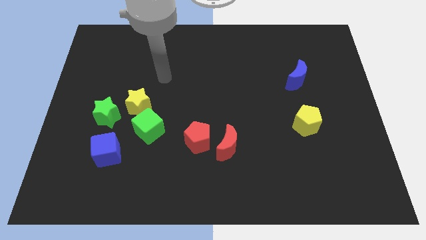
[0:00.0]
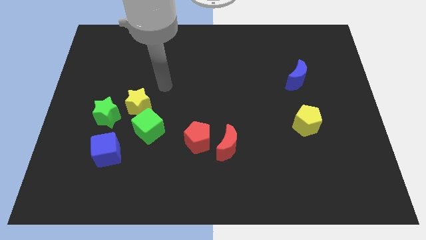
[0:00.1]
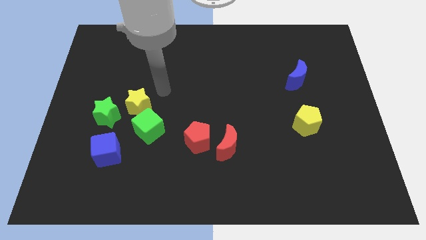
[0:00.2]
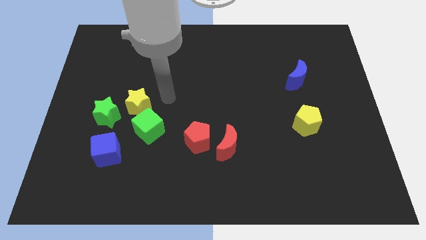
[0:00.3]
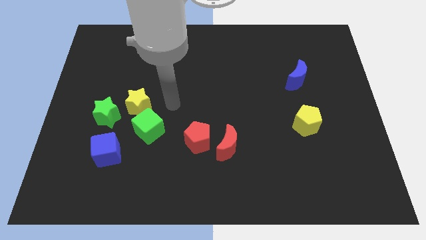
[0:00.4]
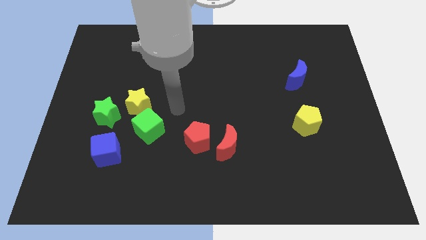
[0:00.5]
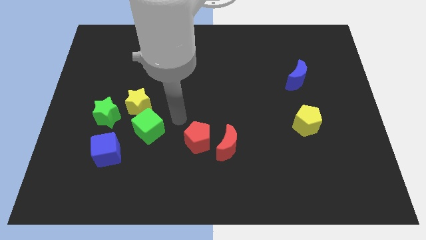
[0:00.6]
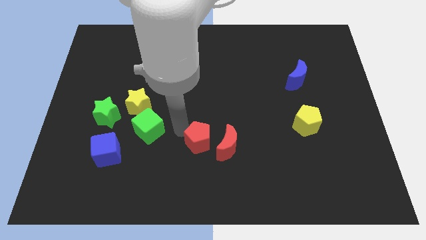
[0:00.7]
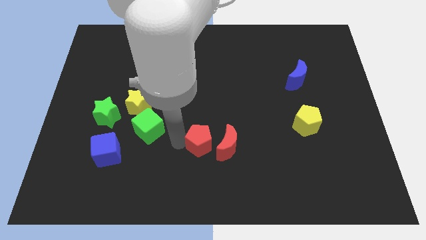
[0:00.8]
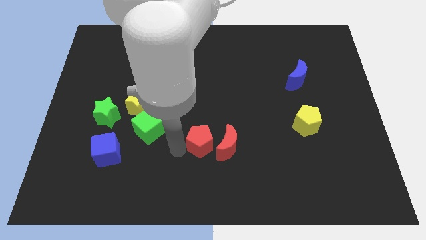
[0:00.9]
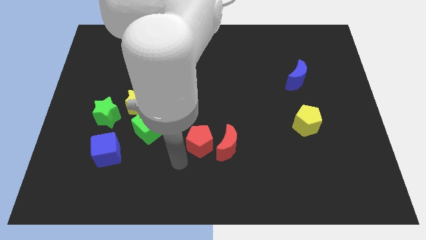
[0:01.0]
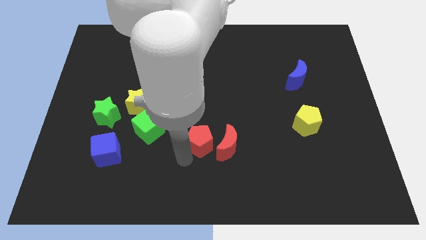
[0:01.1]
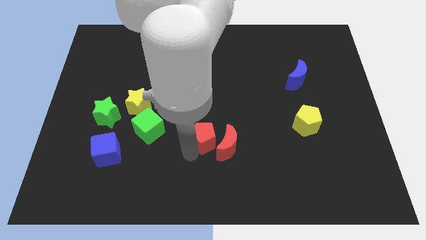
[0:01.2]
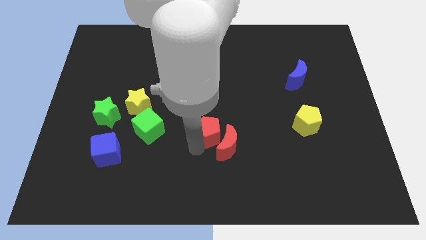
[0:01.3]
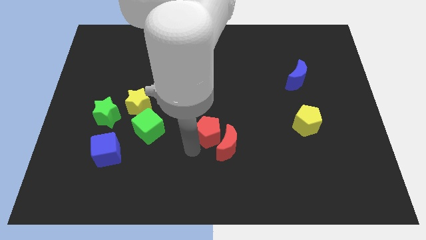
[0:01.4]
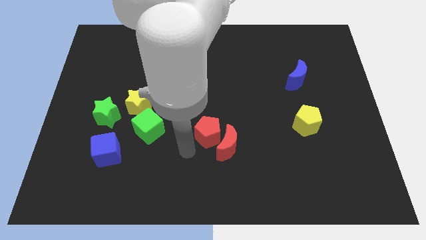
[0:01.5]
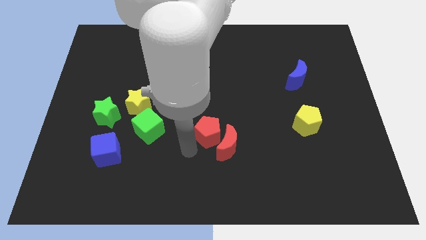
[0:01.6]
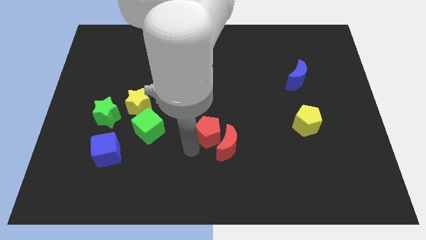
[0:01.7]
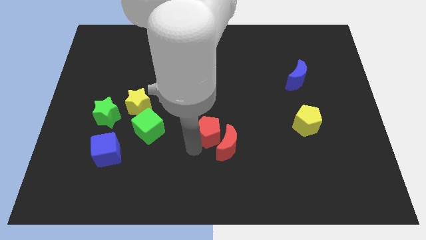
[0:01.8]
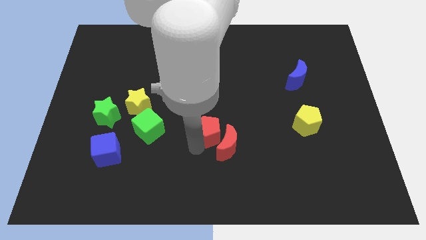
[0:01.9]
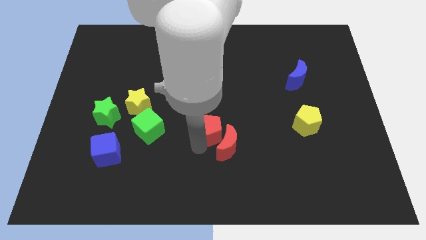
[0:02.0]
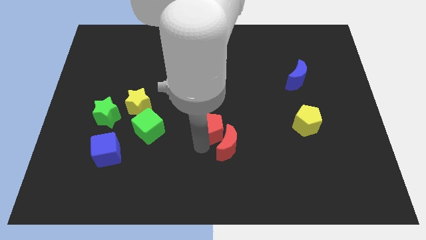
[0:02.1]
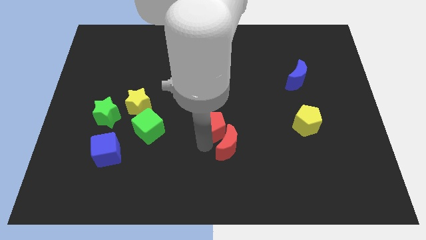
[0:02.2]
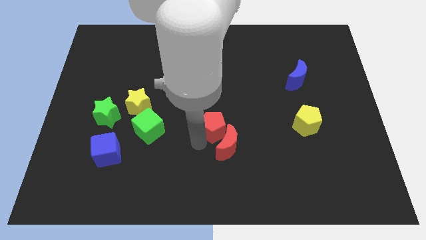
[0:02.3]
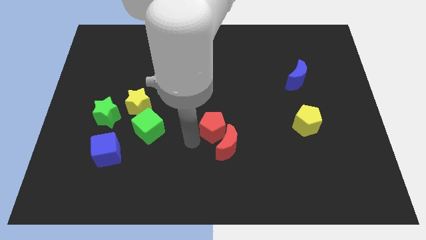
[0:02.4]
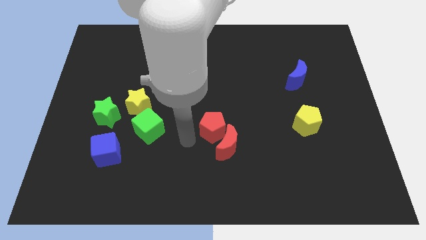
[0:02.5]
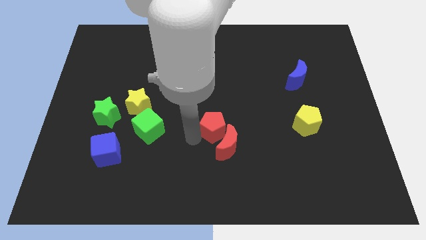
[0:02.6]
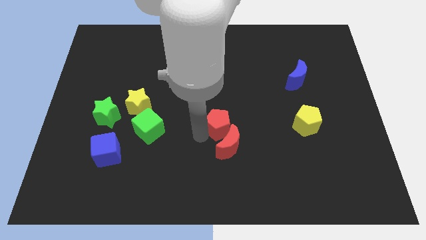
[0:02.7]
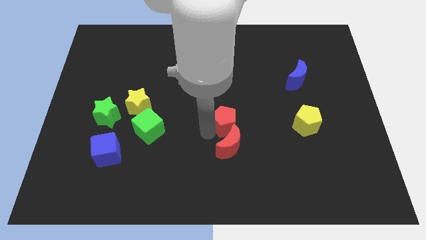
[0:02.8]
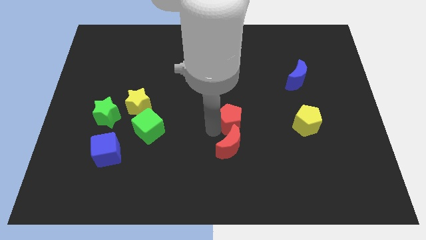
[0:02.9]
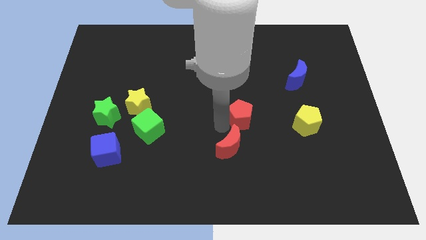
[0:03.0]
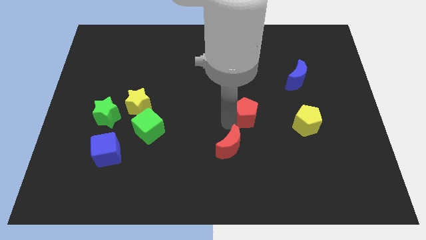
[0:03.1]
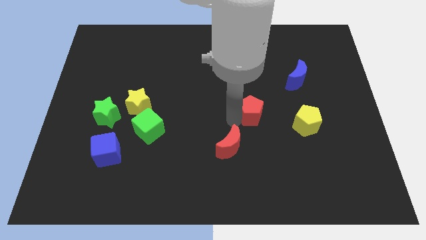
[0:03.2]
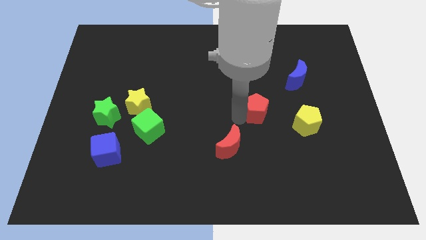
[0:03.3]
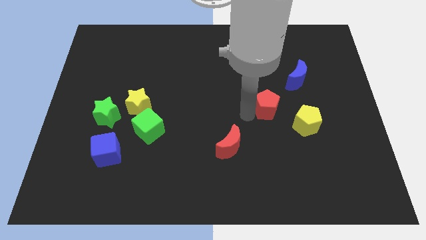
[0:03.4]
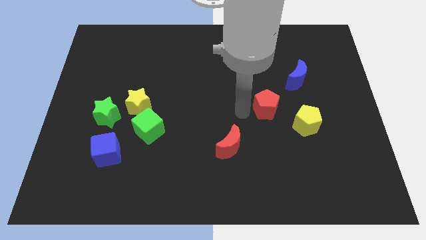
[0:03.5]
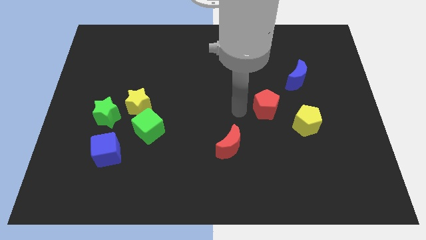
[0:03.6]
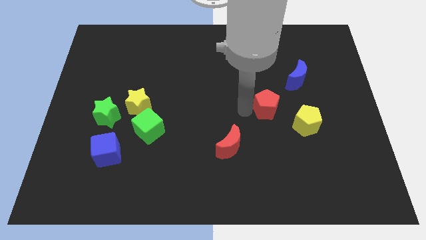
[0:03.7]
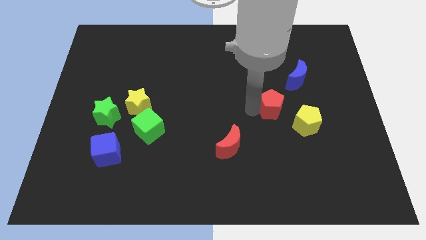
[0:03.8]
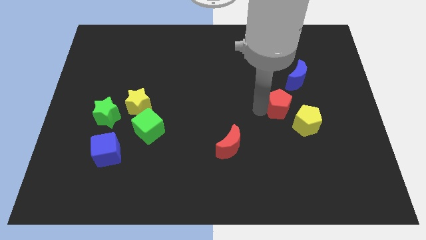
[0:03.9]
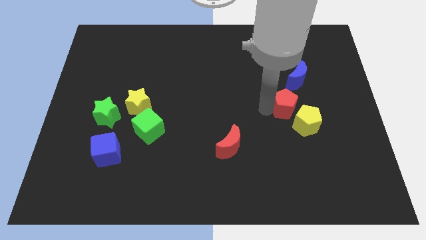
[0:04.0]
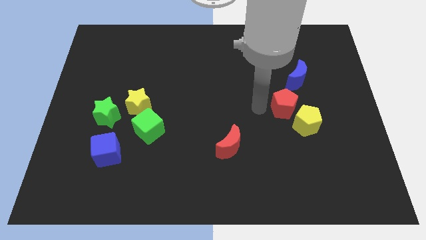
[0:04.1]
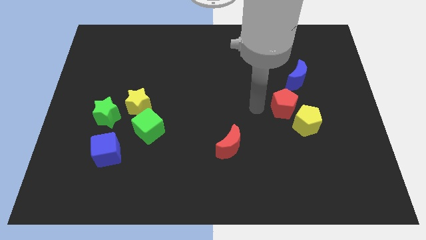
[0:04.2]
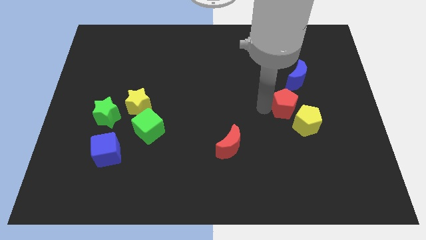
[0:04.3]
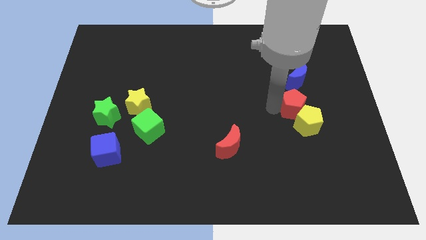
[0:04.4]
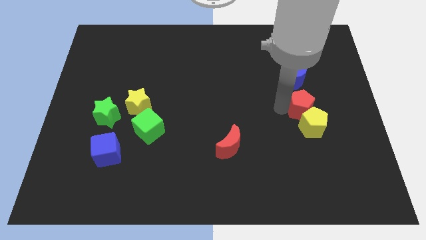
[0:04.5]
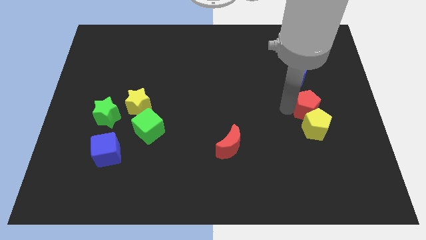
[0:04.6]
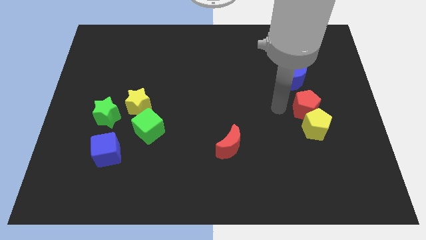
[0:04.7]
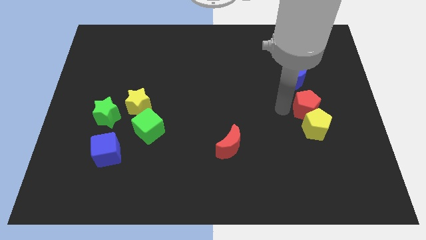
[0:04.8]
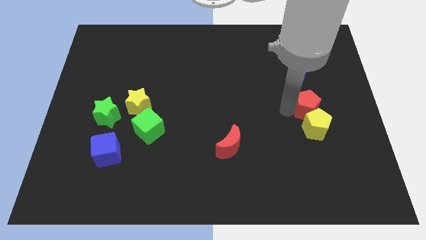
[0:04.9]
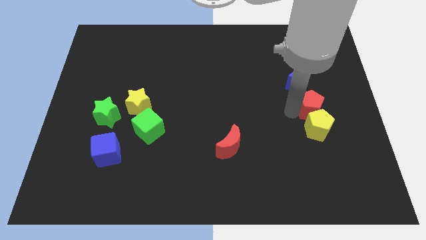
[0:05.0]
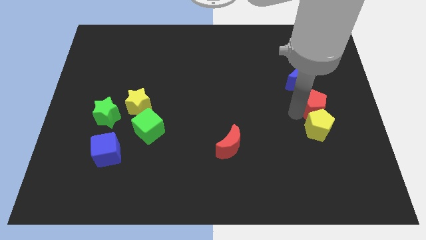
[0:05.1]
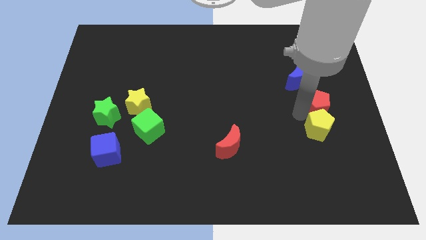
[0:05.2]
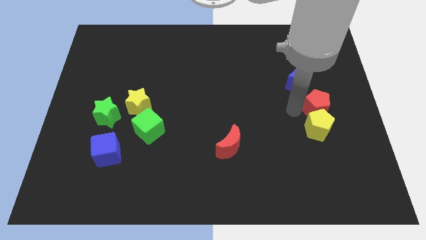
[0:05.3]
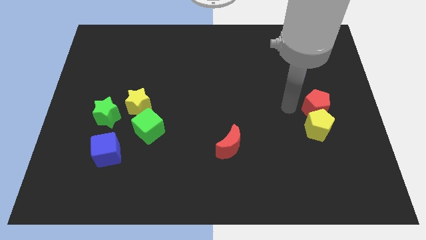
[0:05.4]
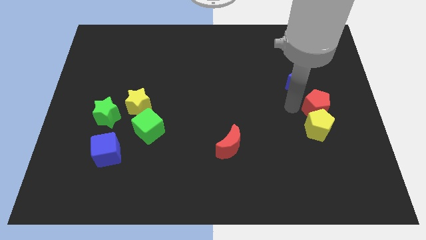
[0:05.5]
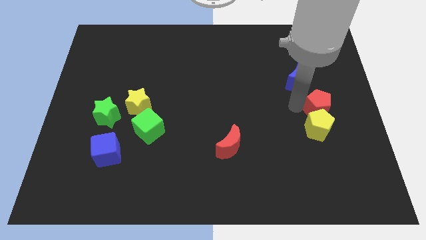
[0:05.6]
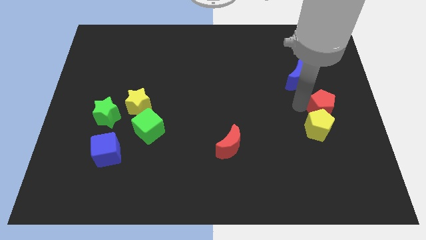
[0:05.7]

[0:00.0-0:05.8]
put the red pentagon to the right side of the board

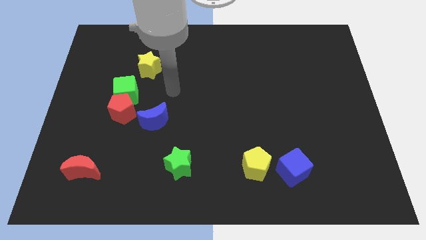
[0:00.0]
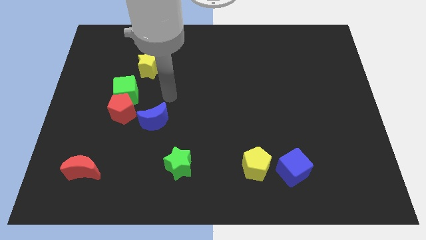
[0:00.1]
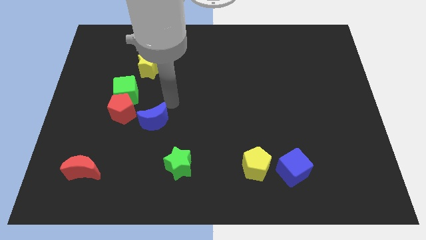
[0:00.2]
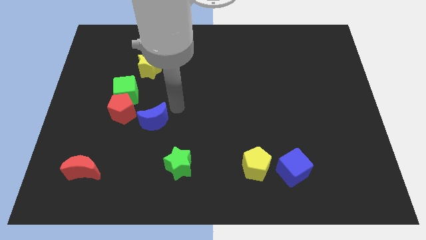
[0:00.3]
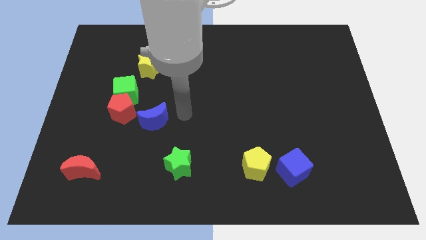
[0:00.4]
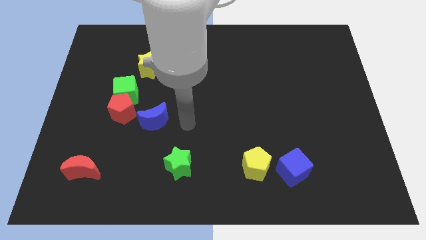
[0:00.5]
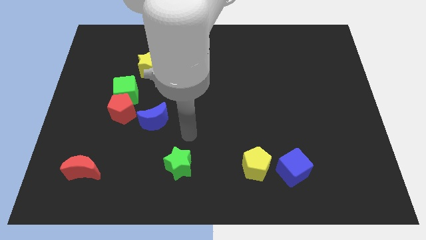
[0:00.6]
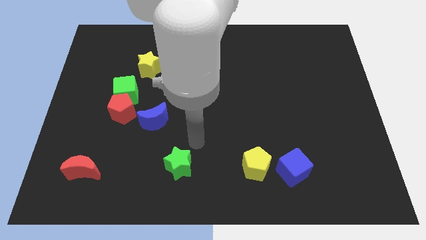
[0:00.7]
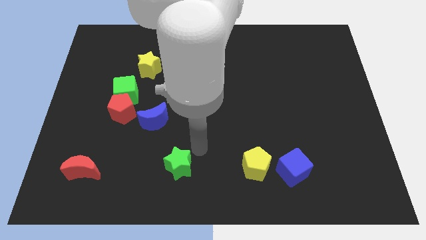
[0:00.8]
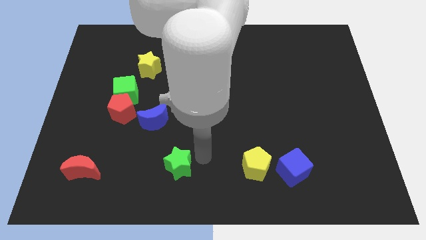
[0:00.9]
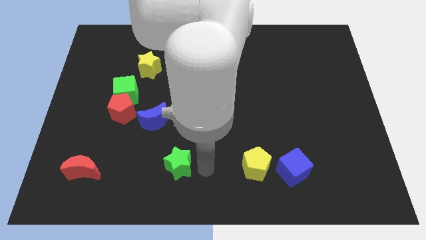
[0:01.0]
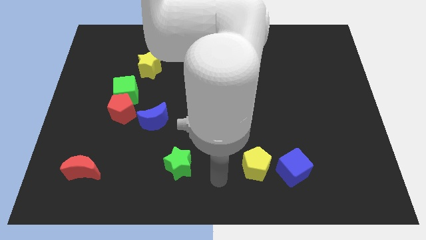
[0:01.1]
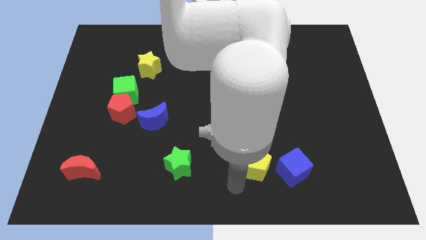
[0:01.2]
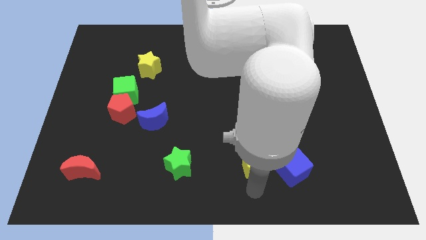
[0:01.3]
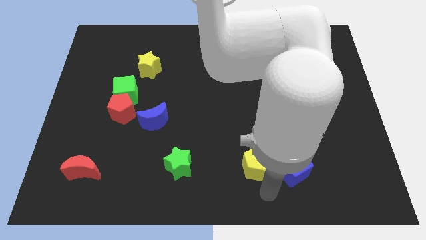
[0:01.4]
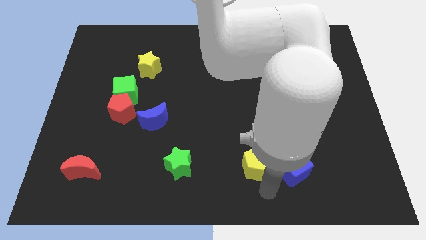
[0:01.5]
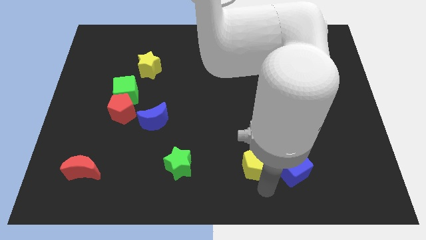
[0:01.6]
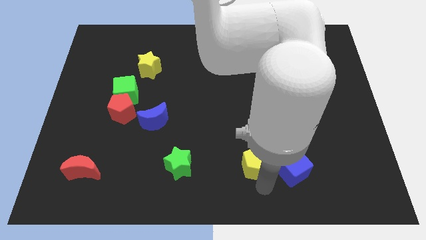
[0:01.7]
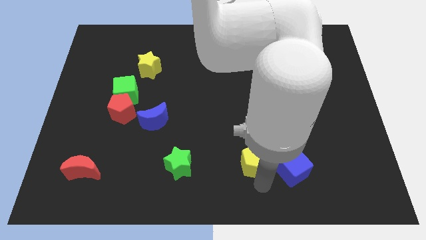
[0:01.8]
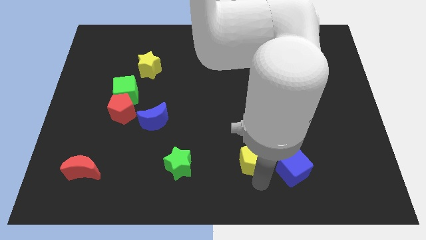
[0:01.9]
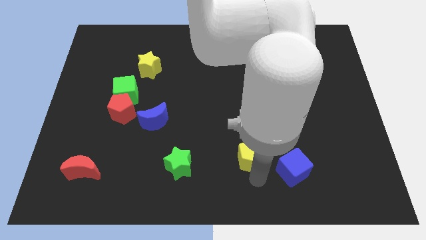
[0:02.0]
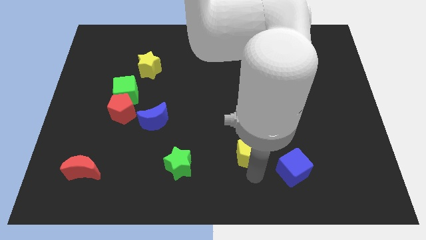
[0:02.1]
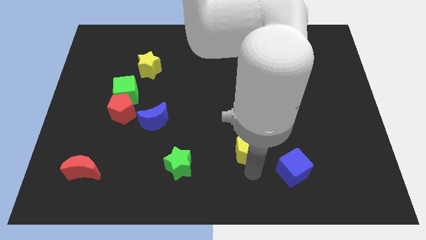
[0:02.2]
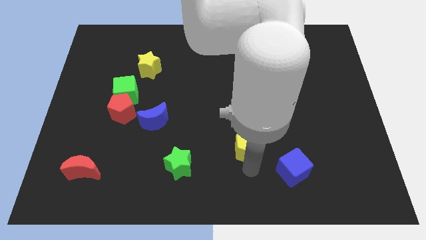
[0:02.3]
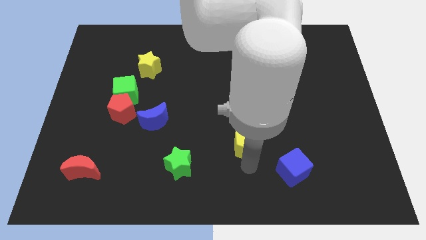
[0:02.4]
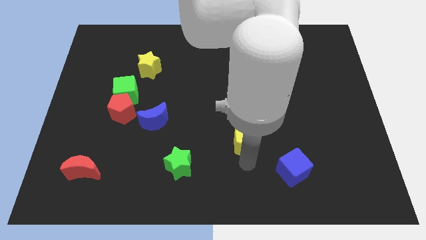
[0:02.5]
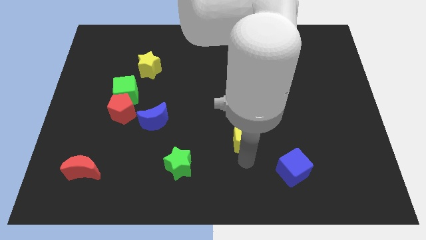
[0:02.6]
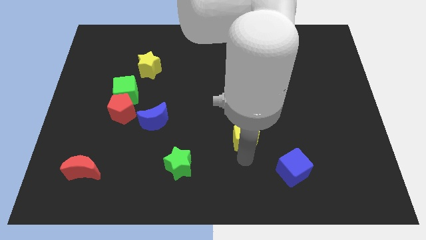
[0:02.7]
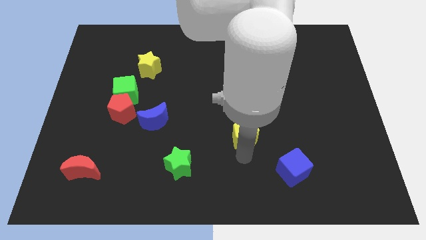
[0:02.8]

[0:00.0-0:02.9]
push the yellow pentagon to the center
